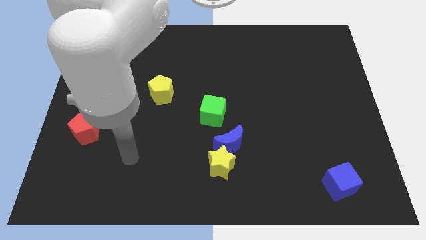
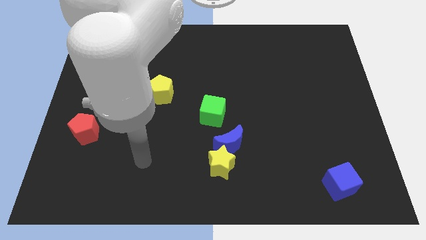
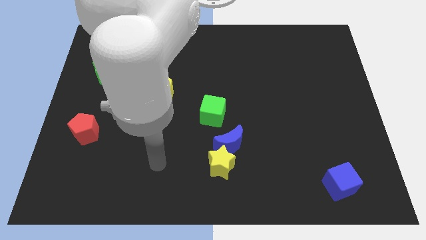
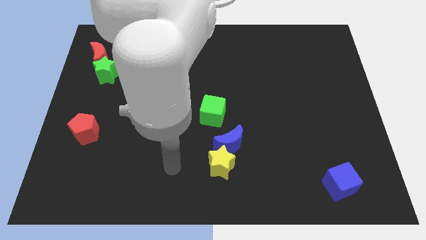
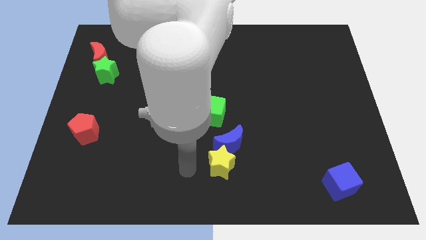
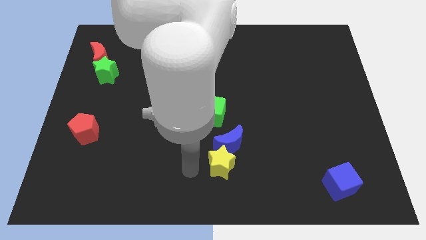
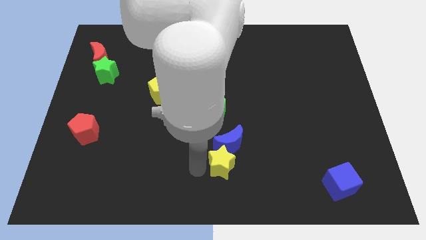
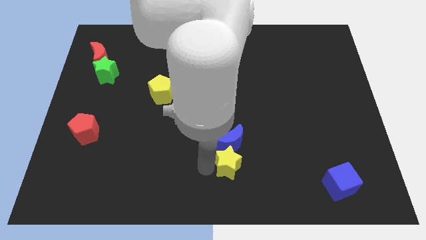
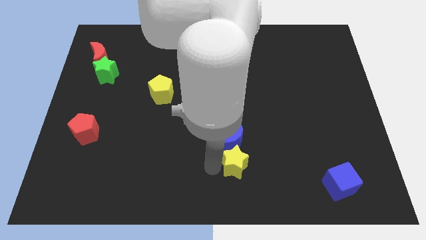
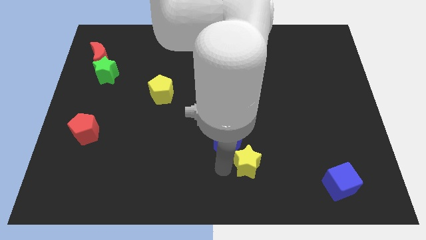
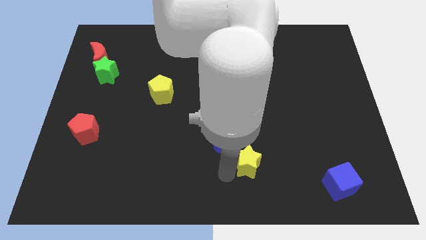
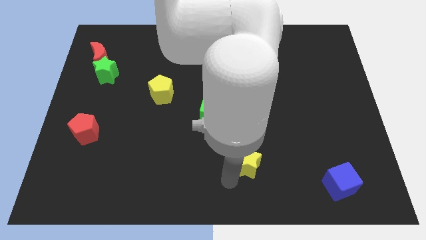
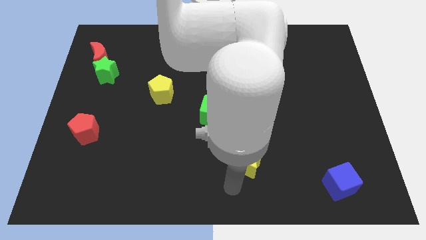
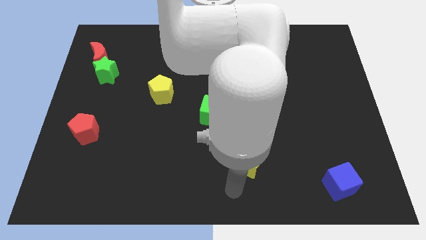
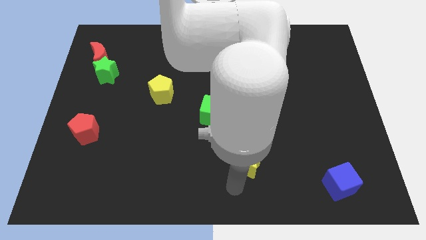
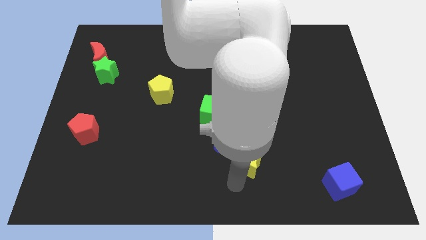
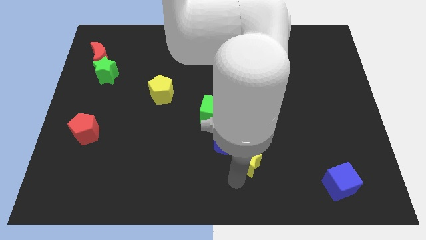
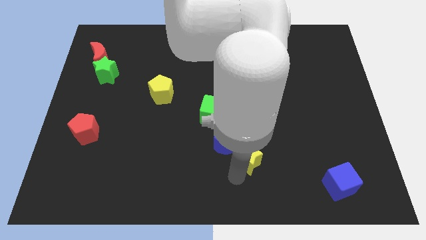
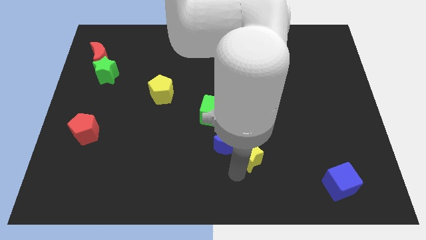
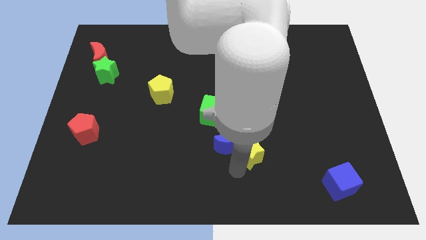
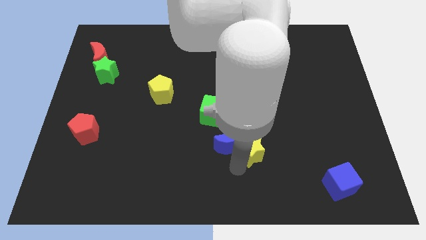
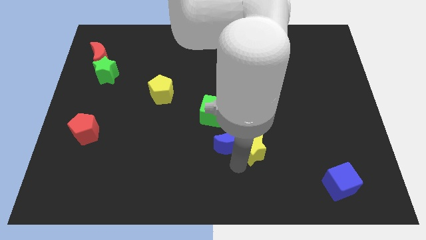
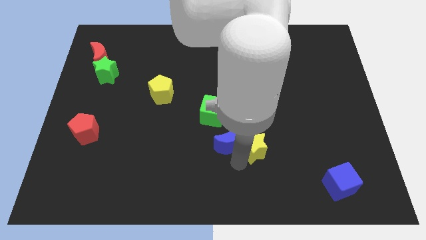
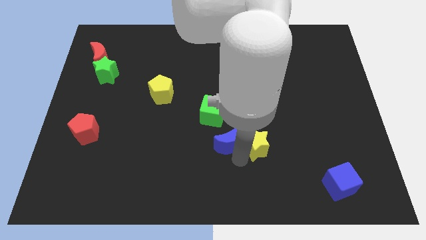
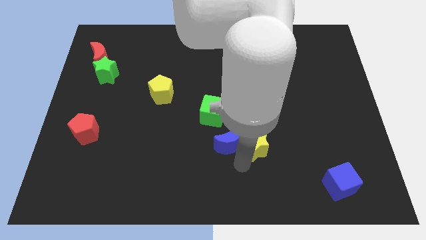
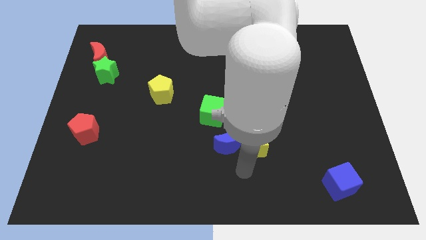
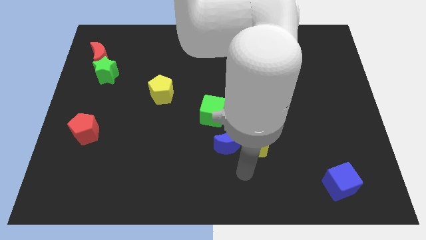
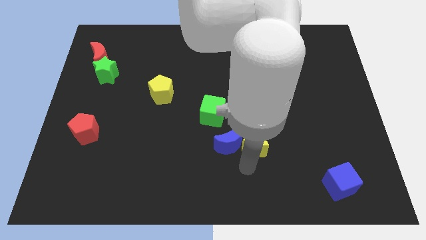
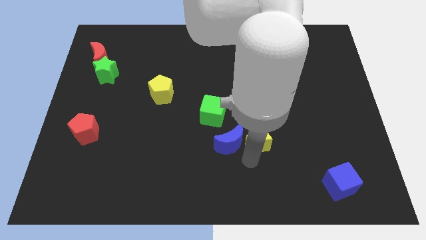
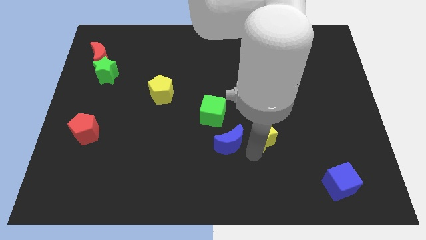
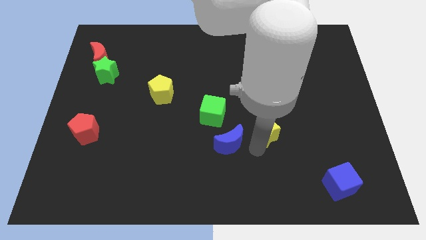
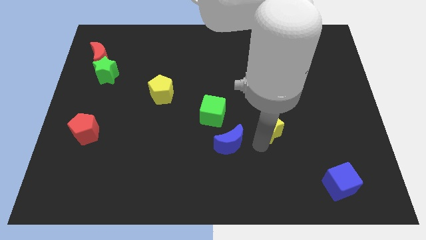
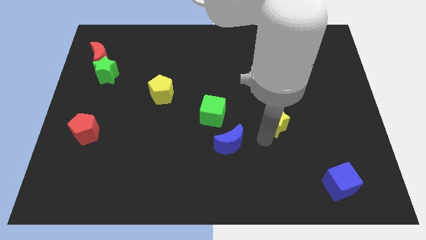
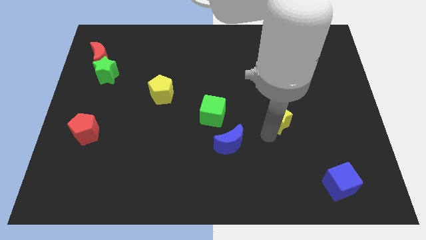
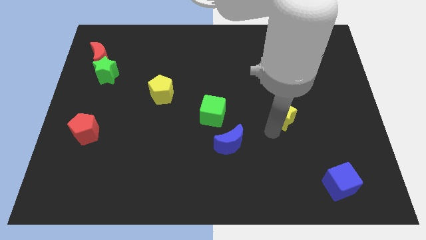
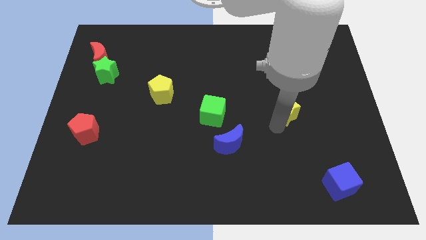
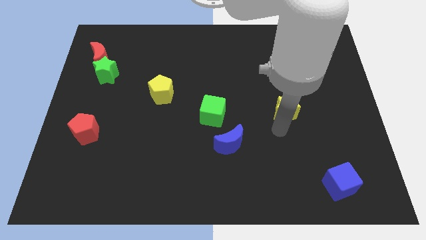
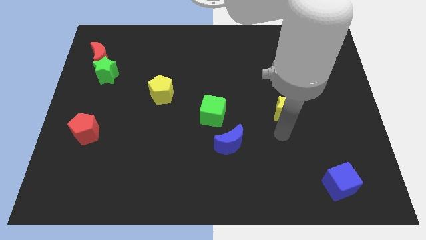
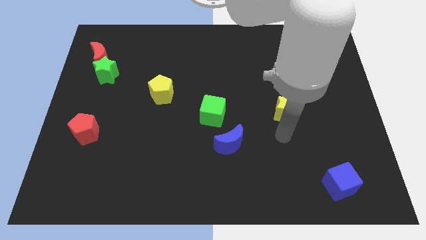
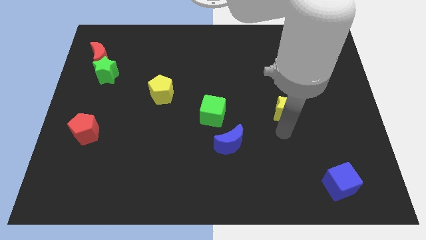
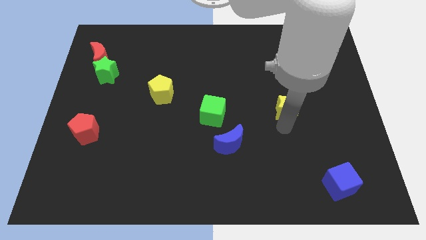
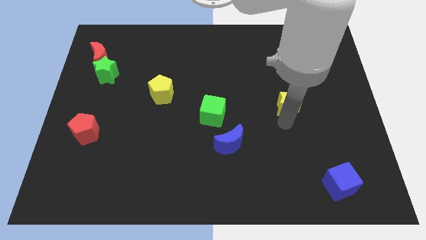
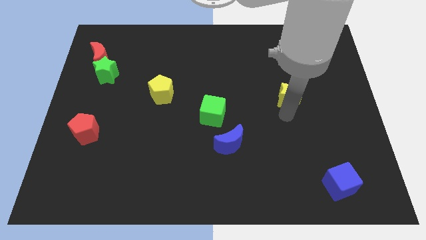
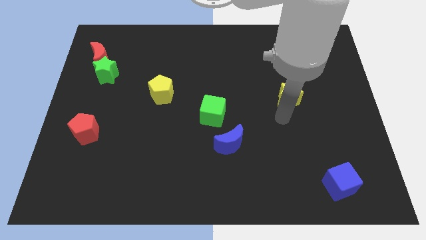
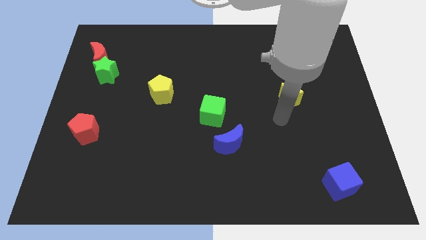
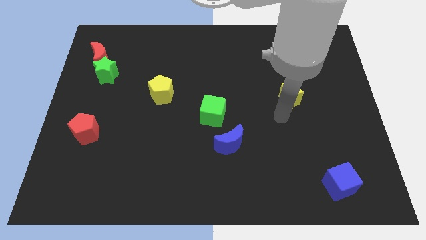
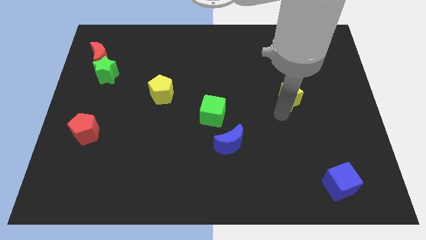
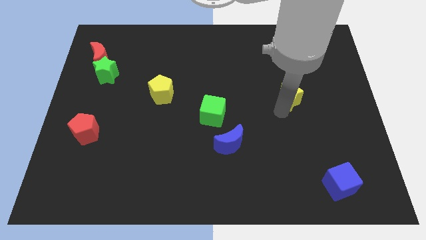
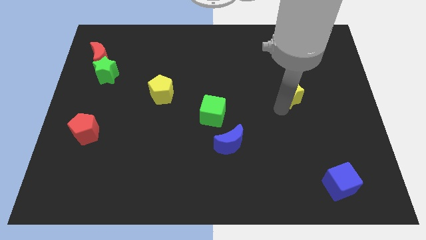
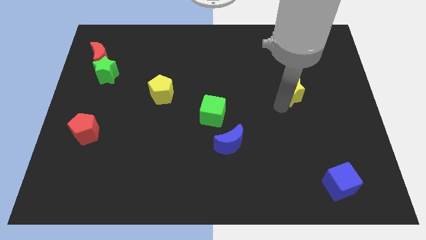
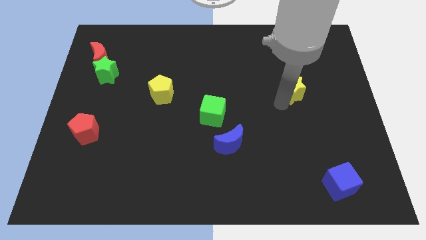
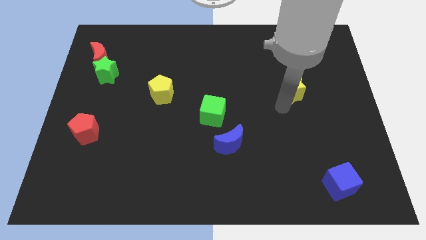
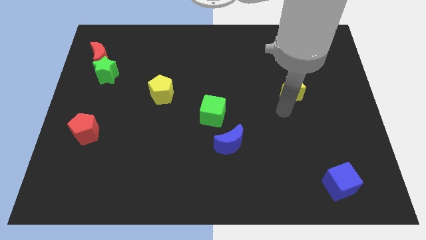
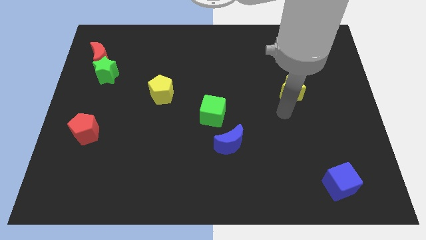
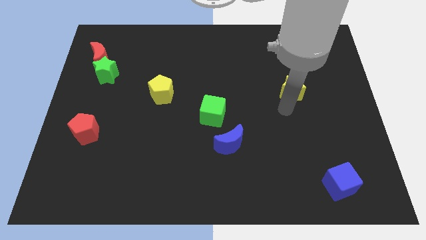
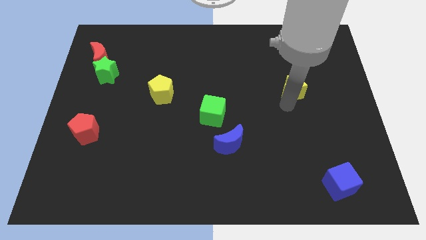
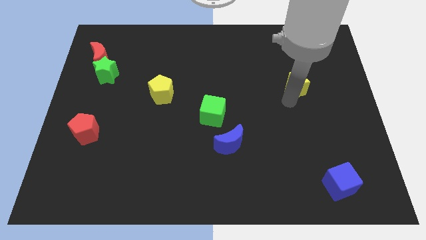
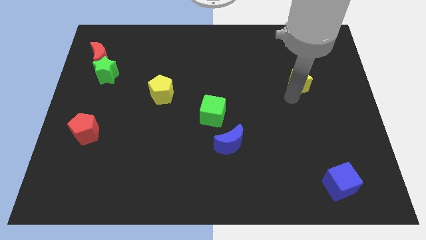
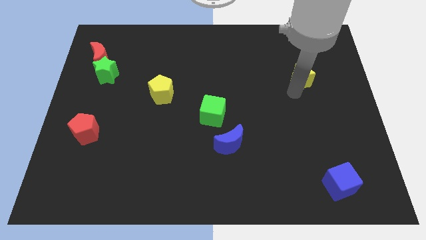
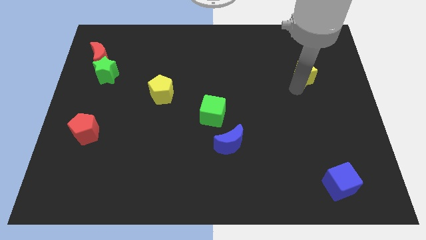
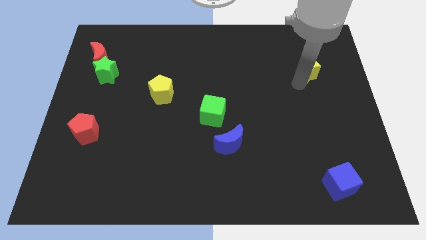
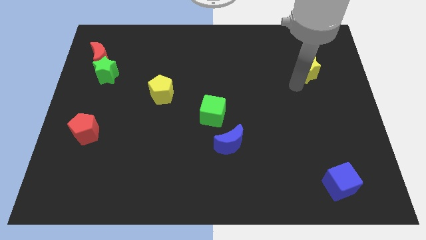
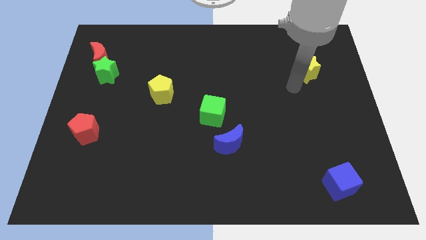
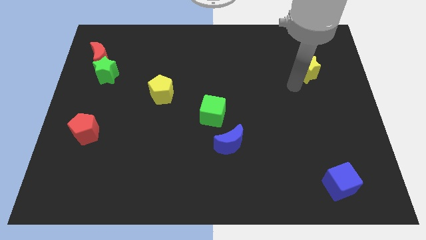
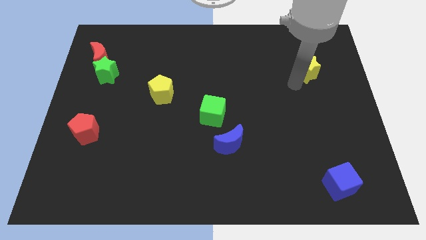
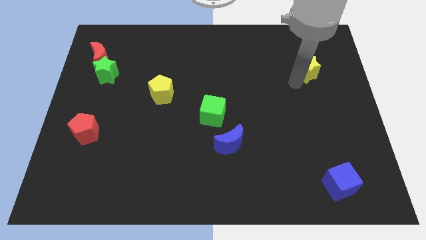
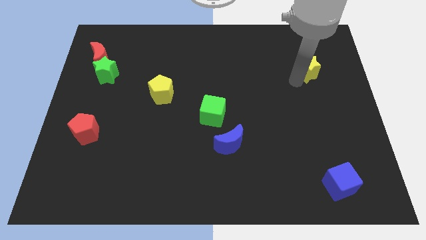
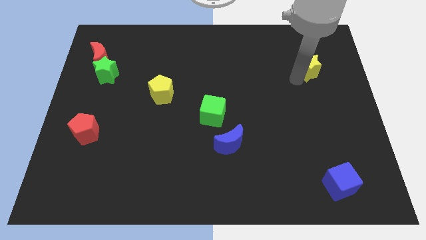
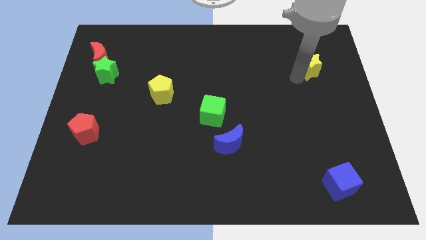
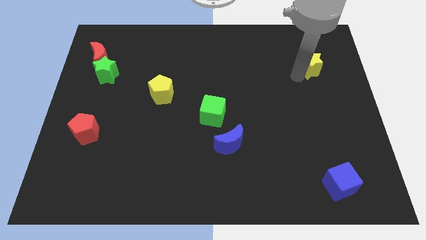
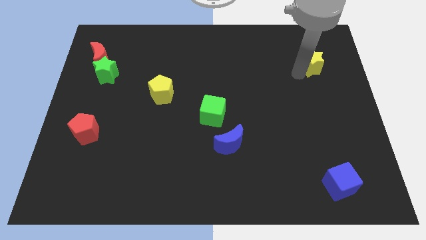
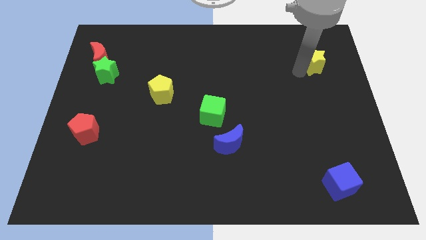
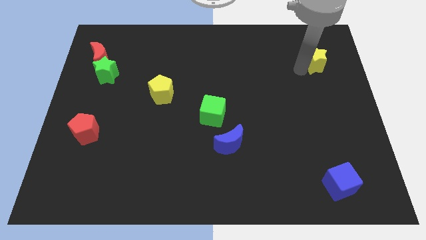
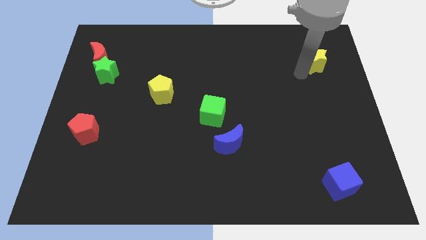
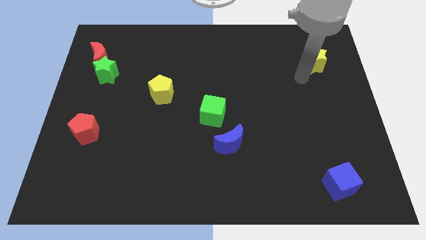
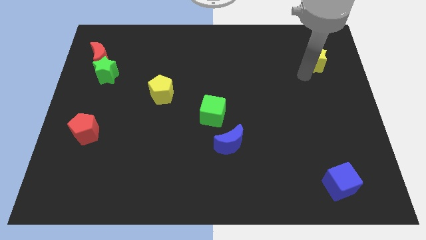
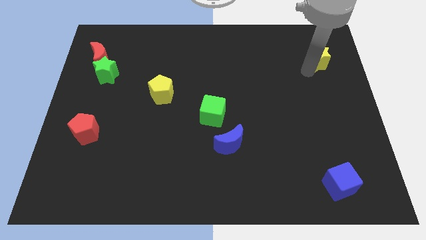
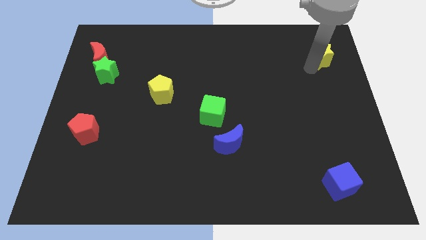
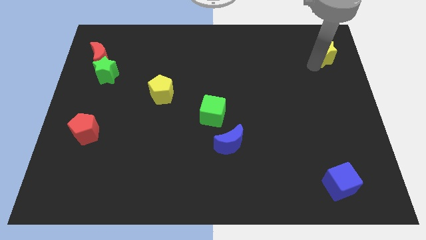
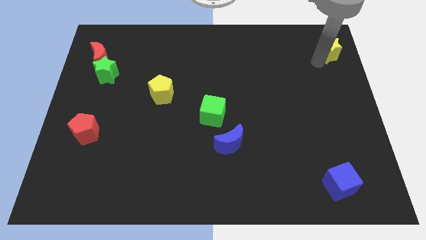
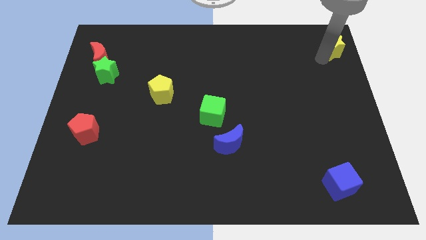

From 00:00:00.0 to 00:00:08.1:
slide the yellow star to the top right
